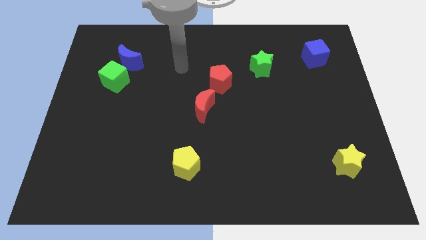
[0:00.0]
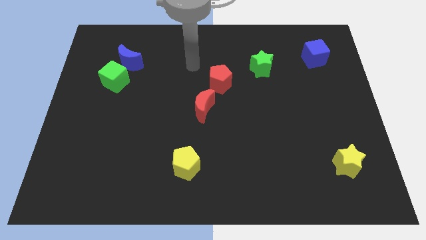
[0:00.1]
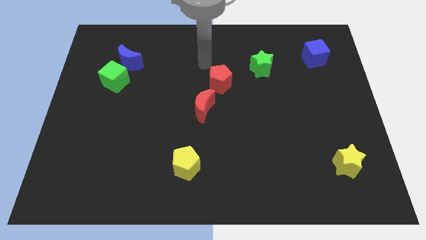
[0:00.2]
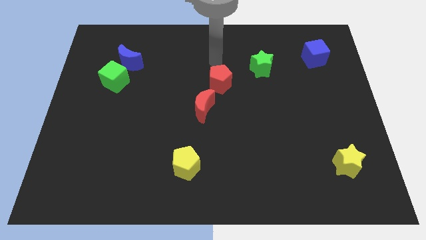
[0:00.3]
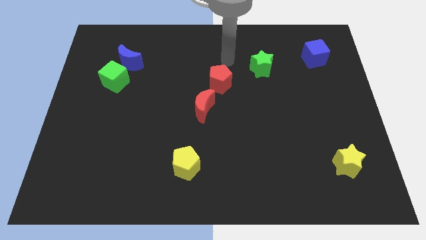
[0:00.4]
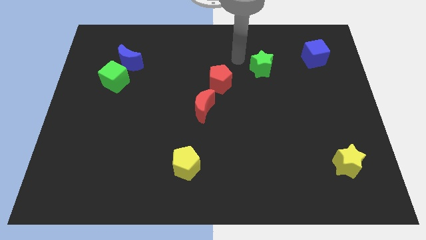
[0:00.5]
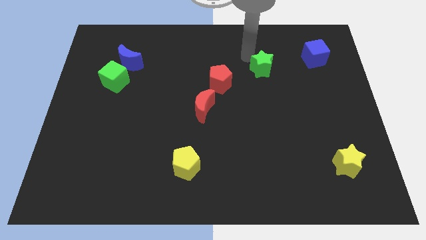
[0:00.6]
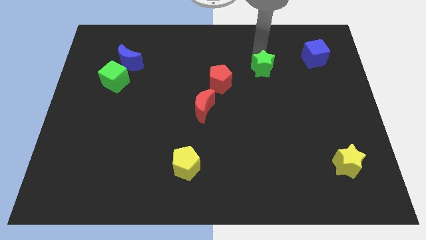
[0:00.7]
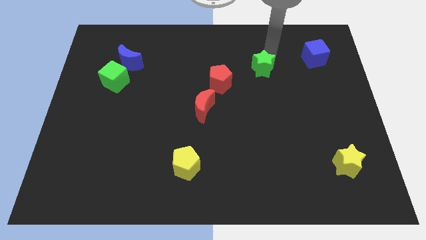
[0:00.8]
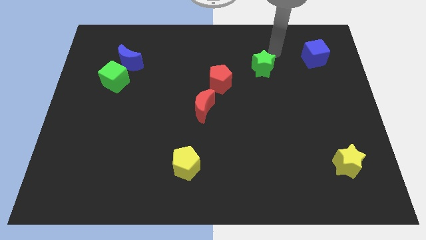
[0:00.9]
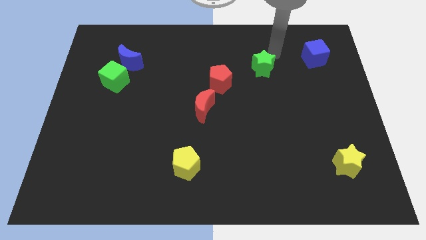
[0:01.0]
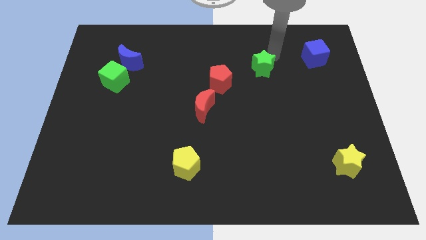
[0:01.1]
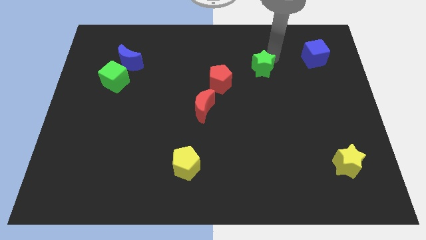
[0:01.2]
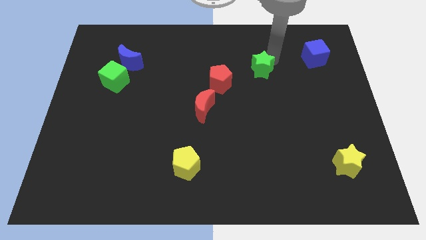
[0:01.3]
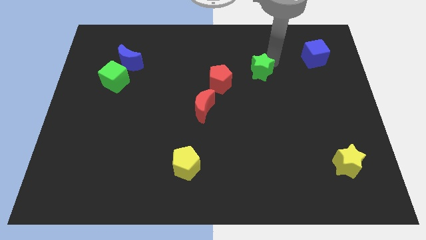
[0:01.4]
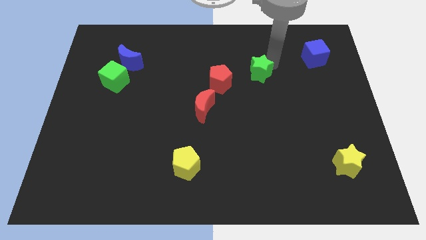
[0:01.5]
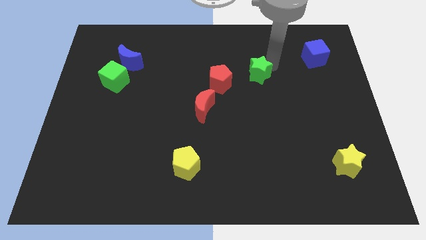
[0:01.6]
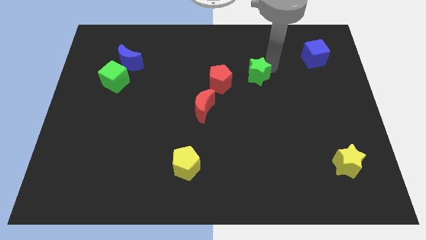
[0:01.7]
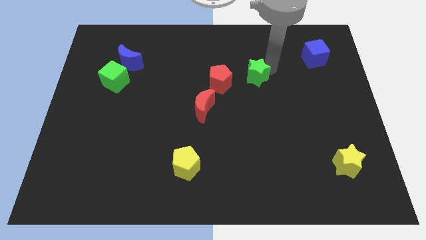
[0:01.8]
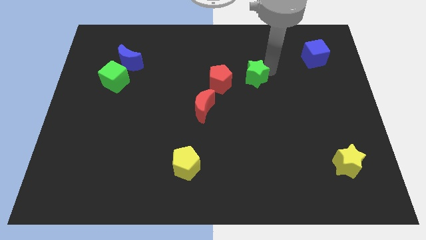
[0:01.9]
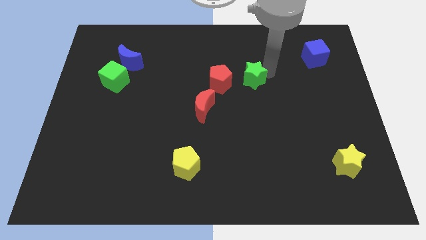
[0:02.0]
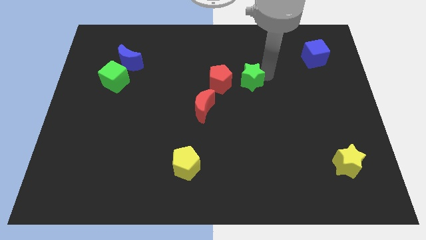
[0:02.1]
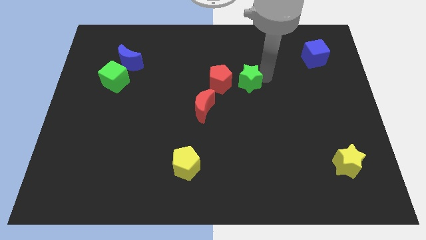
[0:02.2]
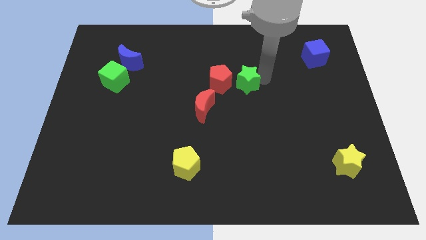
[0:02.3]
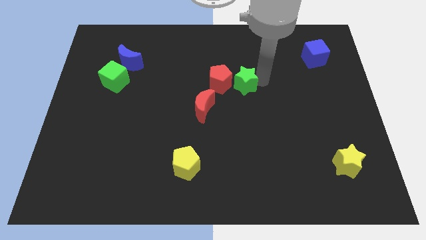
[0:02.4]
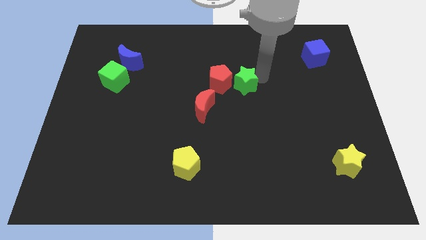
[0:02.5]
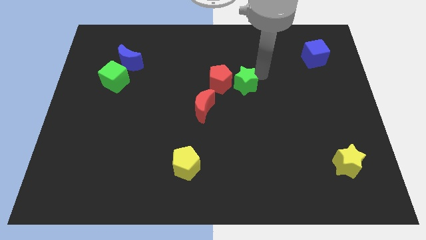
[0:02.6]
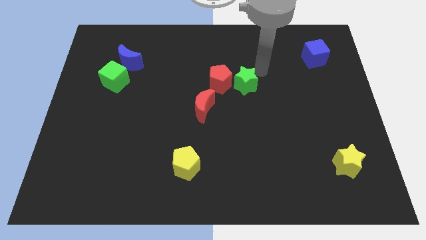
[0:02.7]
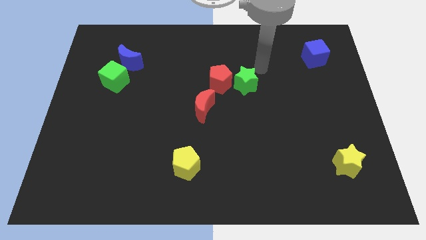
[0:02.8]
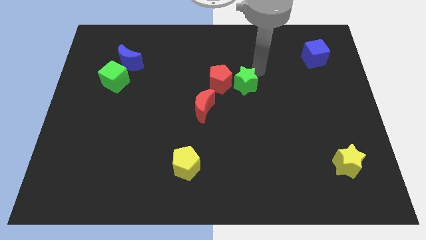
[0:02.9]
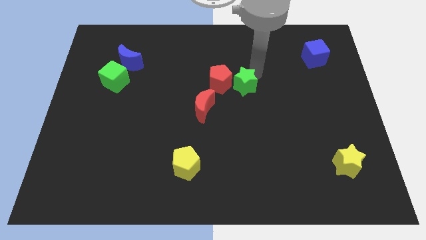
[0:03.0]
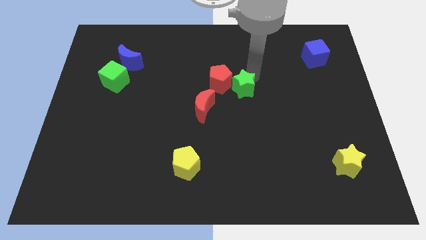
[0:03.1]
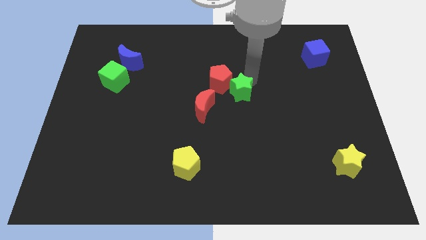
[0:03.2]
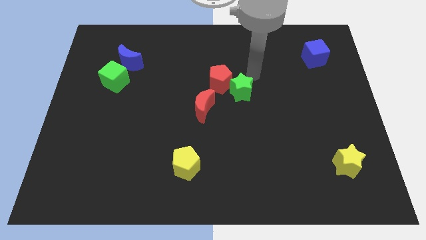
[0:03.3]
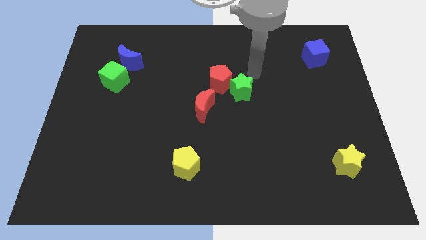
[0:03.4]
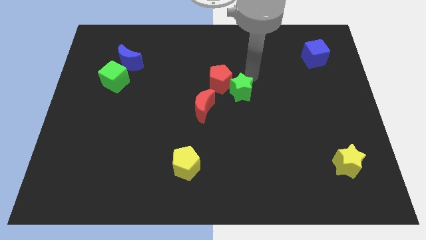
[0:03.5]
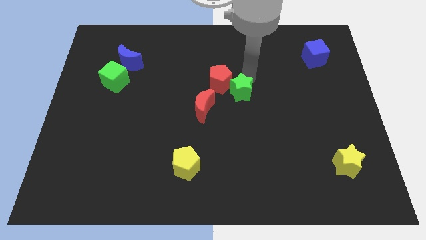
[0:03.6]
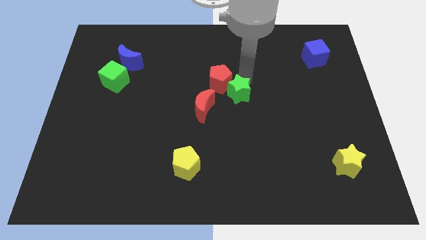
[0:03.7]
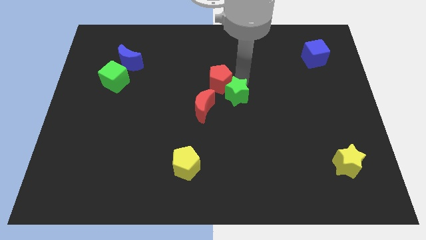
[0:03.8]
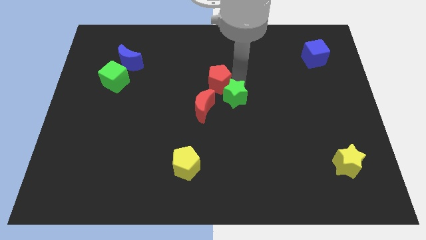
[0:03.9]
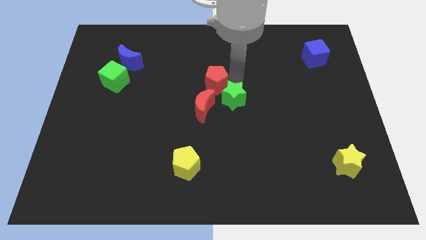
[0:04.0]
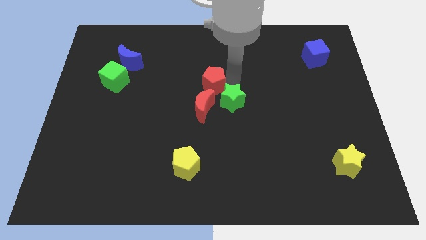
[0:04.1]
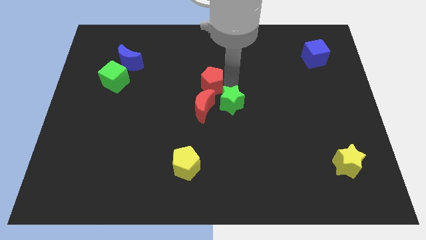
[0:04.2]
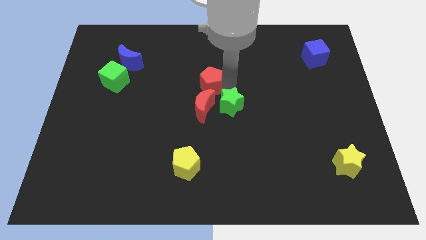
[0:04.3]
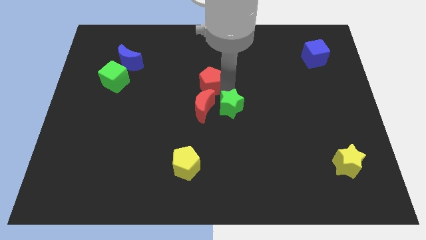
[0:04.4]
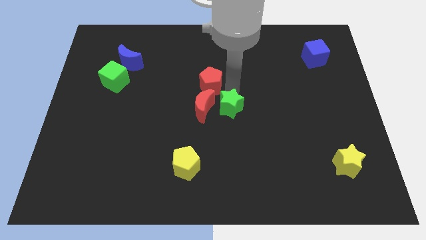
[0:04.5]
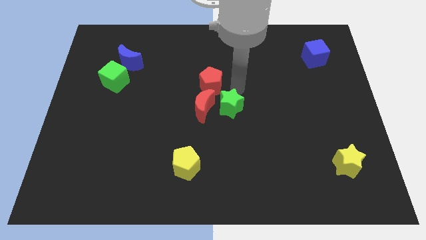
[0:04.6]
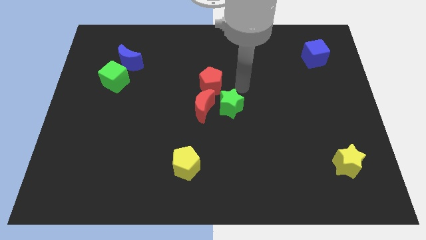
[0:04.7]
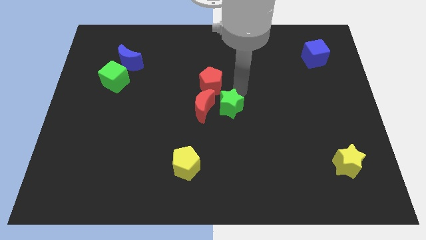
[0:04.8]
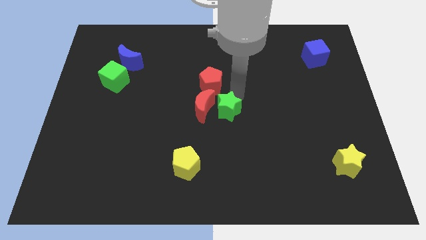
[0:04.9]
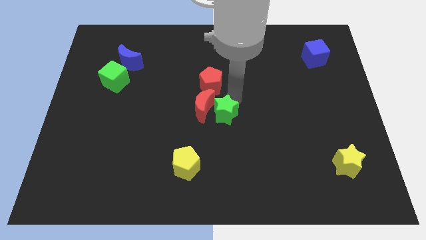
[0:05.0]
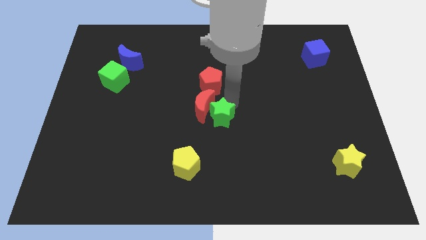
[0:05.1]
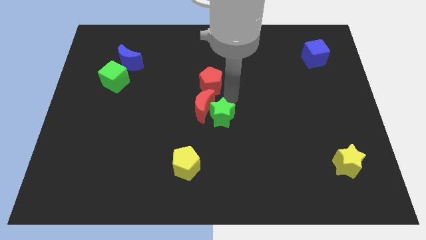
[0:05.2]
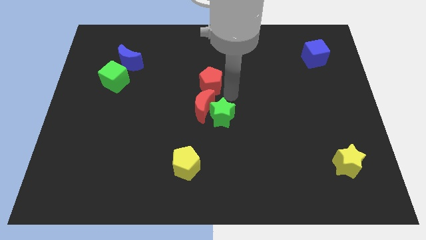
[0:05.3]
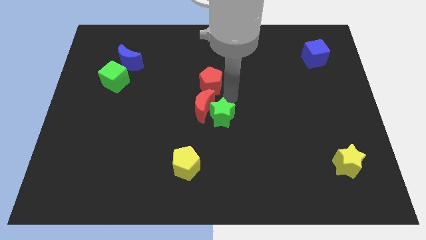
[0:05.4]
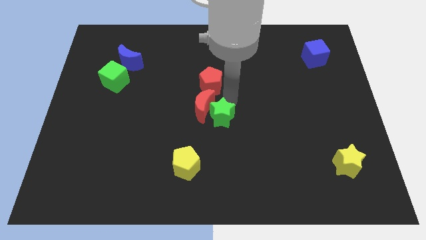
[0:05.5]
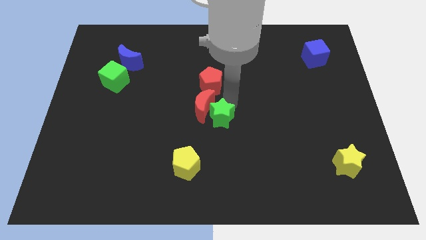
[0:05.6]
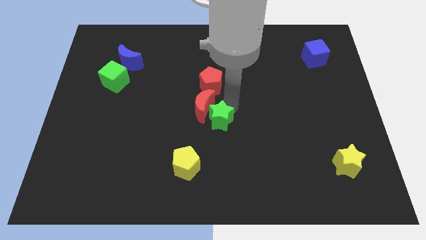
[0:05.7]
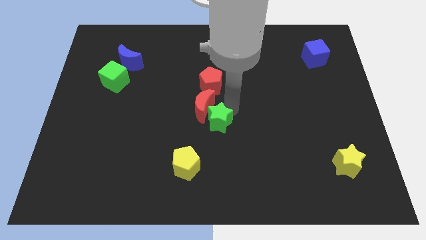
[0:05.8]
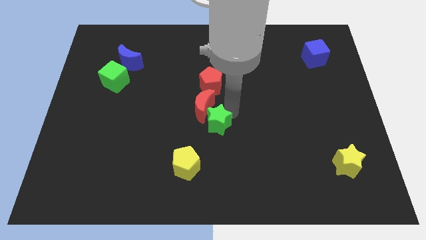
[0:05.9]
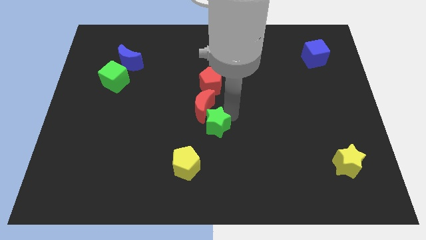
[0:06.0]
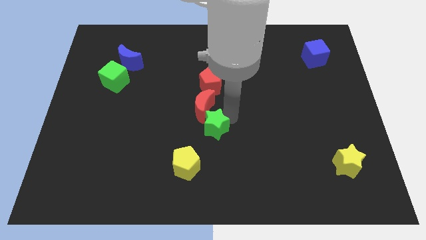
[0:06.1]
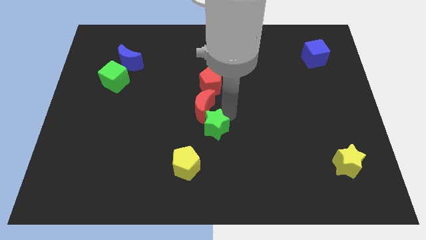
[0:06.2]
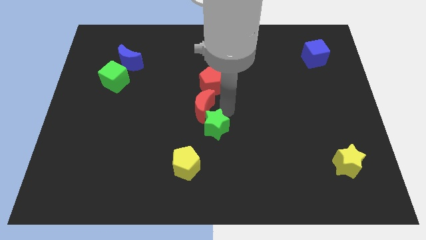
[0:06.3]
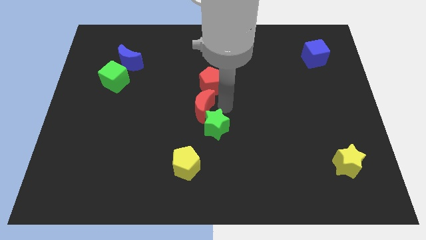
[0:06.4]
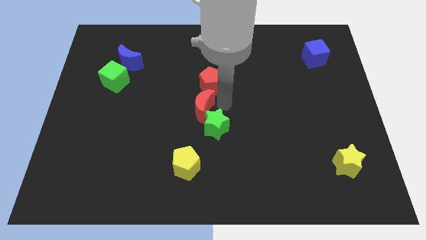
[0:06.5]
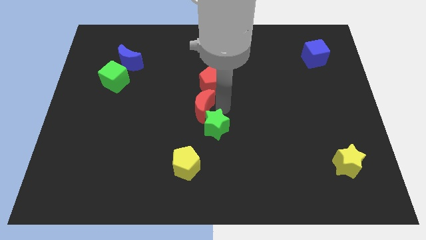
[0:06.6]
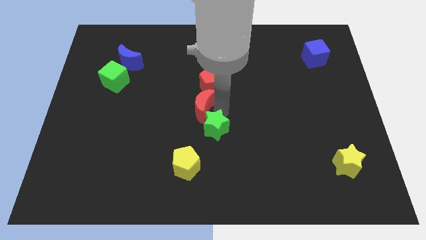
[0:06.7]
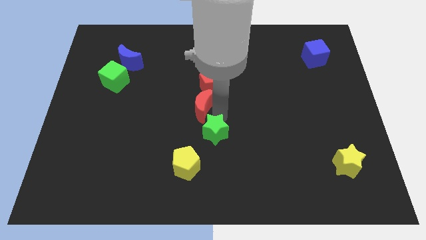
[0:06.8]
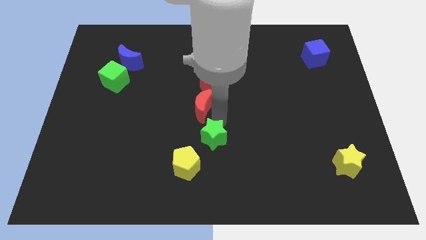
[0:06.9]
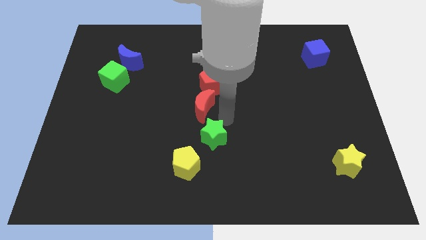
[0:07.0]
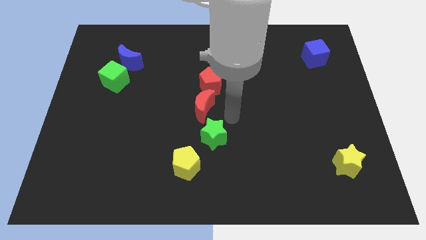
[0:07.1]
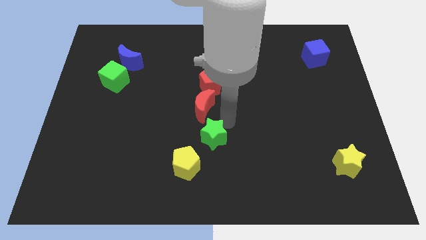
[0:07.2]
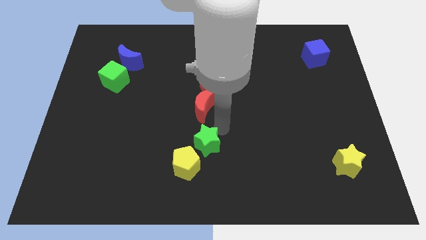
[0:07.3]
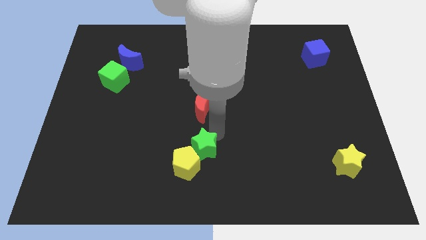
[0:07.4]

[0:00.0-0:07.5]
push the green star close to the yellow pentagon
